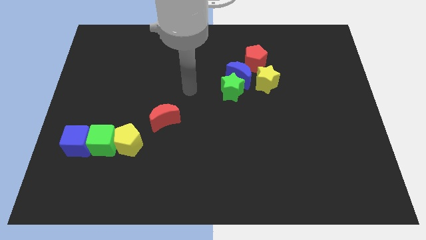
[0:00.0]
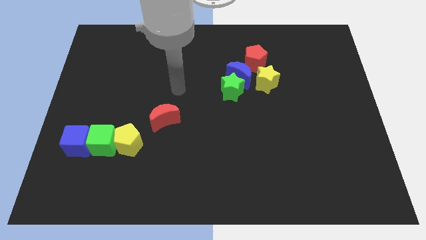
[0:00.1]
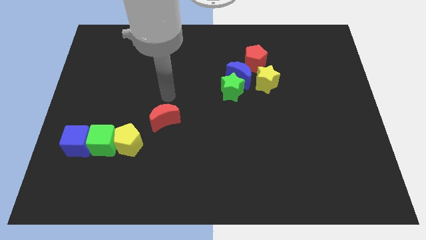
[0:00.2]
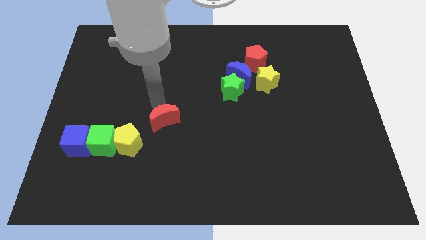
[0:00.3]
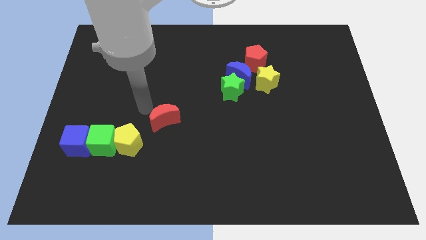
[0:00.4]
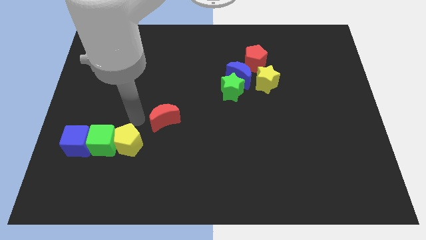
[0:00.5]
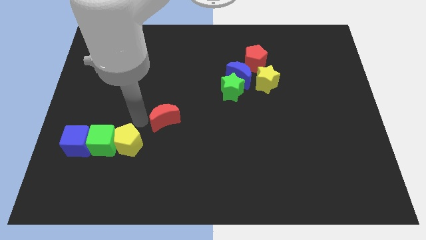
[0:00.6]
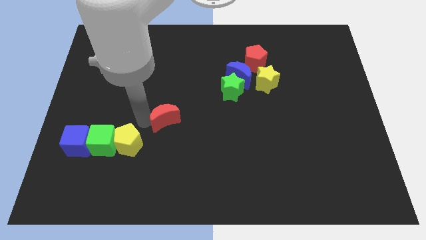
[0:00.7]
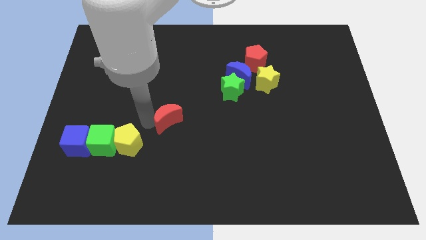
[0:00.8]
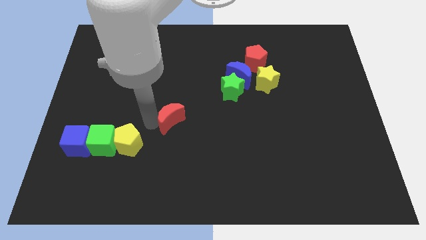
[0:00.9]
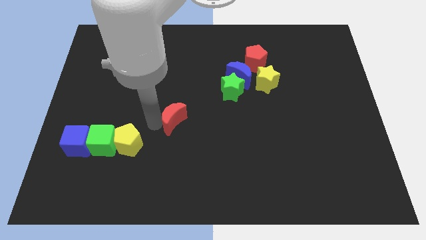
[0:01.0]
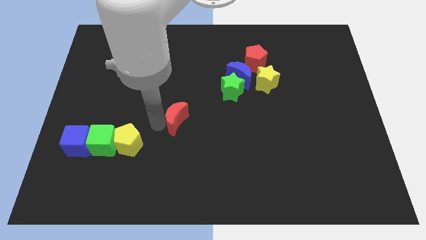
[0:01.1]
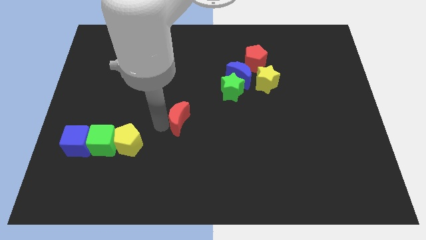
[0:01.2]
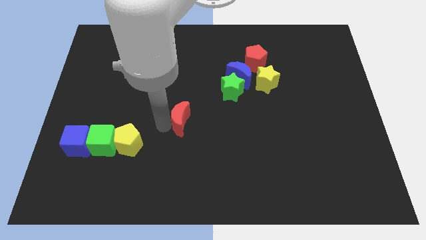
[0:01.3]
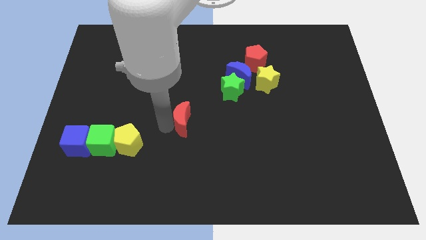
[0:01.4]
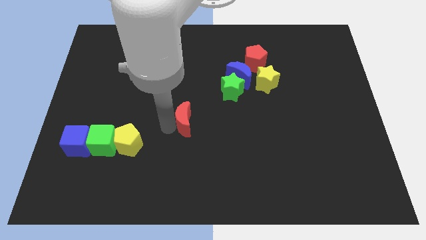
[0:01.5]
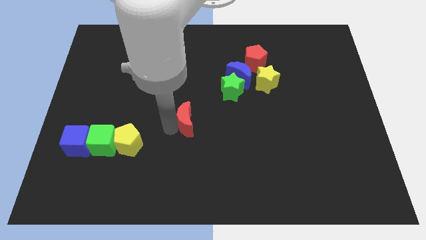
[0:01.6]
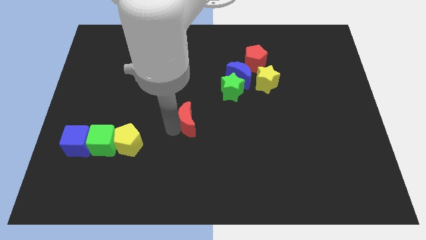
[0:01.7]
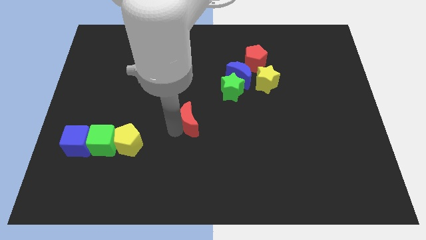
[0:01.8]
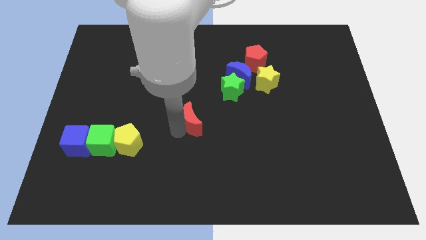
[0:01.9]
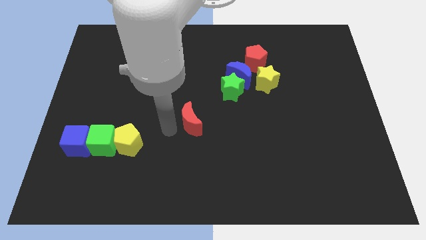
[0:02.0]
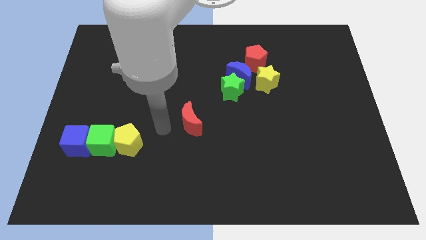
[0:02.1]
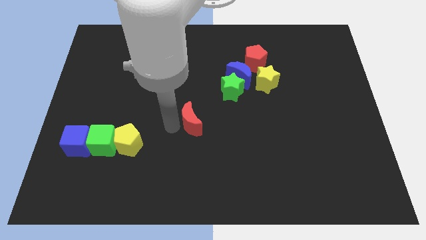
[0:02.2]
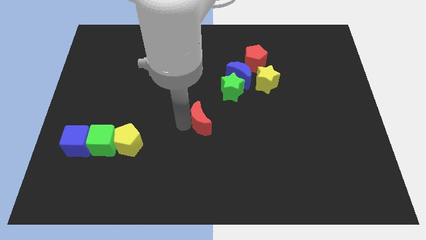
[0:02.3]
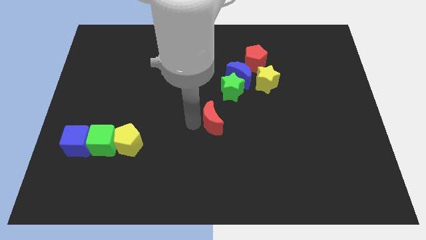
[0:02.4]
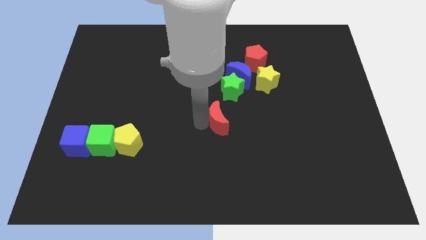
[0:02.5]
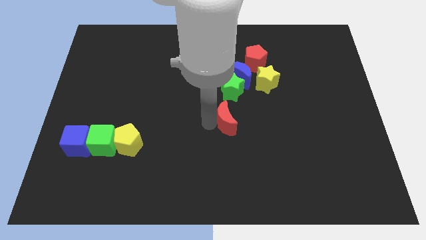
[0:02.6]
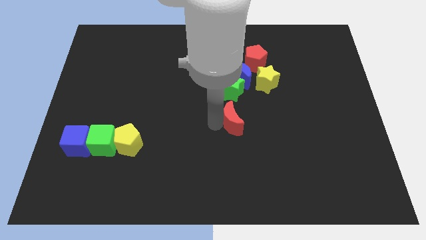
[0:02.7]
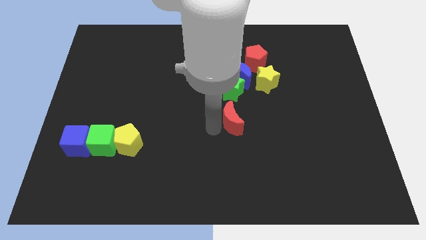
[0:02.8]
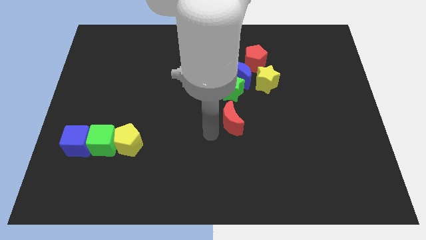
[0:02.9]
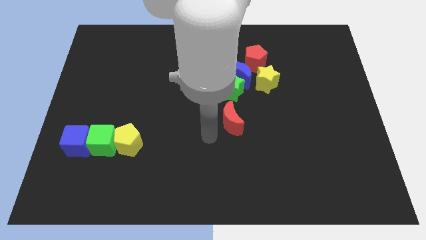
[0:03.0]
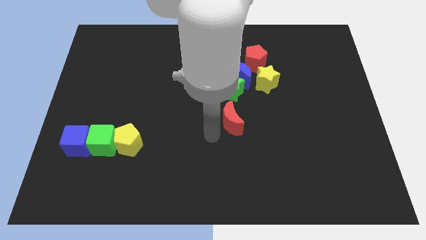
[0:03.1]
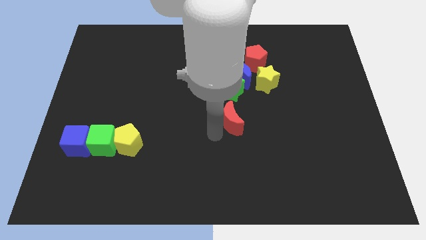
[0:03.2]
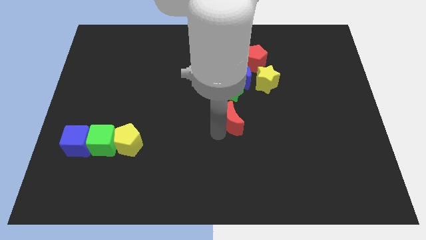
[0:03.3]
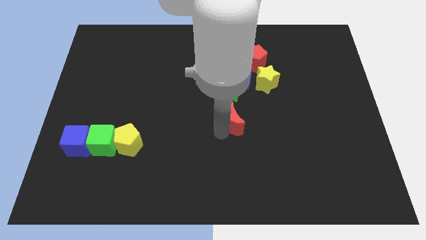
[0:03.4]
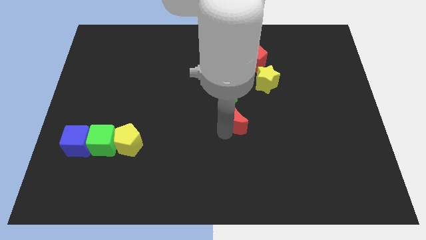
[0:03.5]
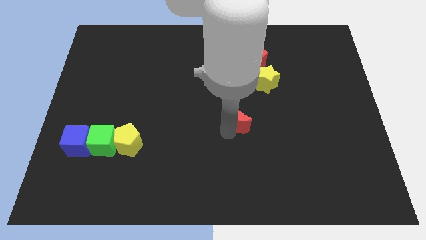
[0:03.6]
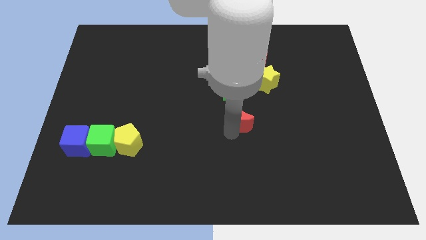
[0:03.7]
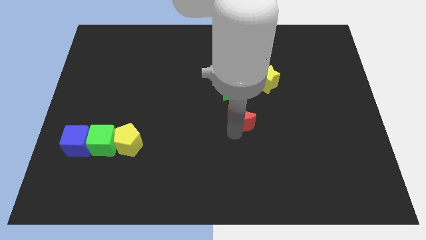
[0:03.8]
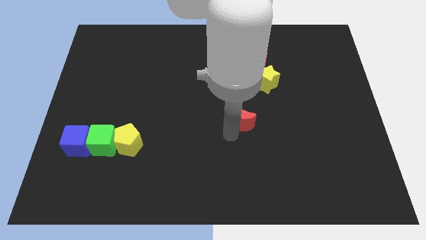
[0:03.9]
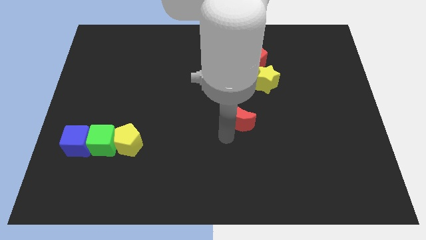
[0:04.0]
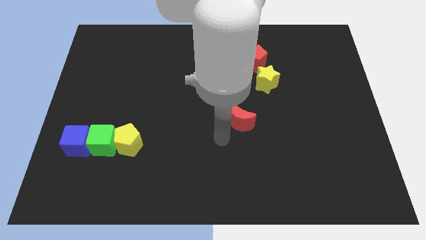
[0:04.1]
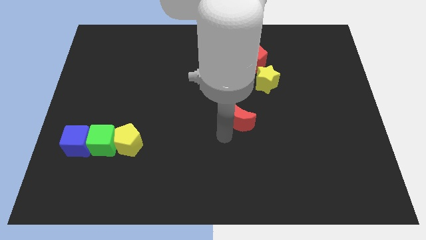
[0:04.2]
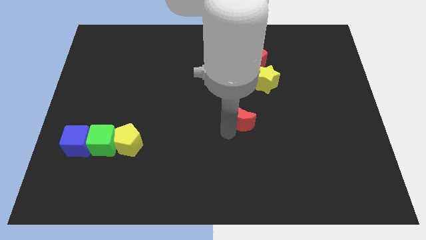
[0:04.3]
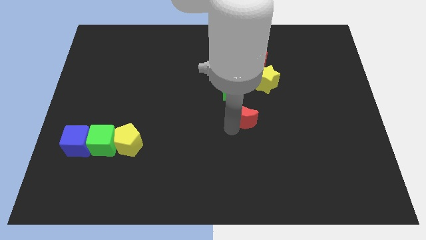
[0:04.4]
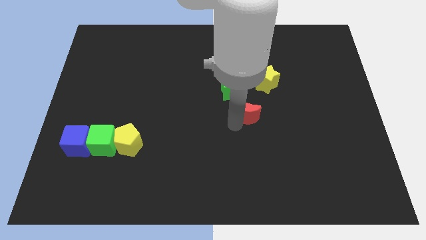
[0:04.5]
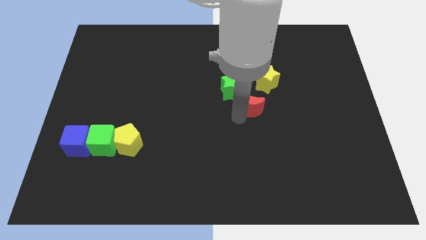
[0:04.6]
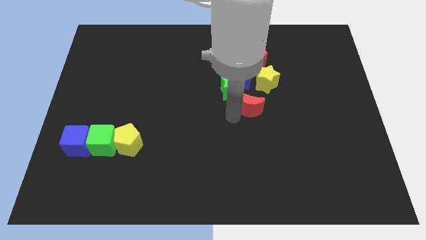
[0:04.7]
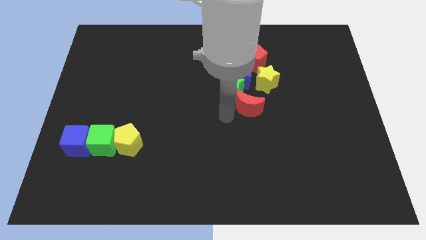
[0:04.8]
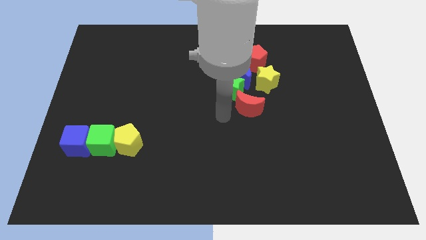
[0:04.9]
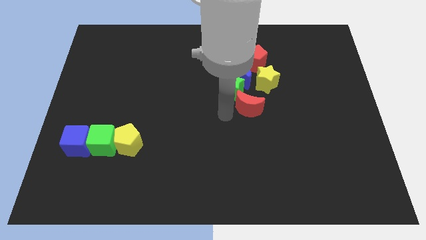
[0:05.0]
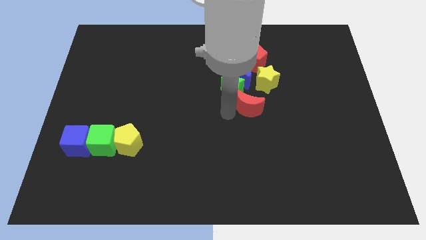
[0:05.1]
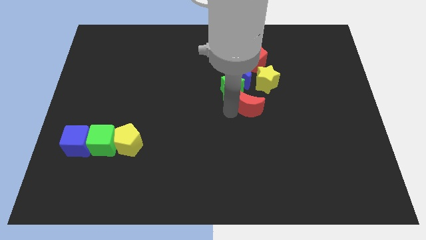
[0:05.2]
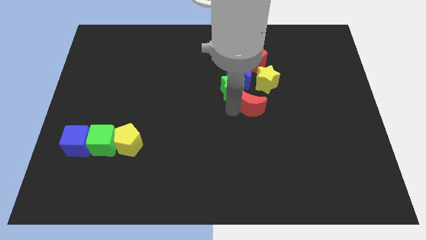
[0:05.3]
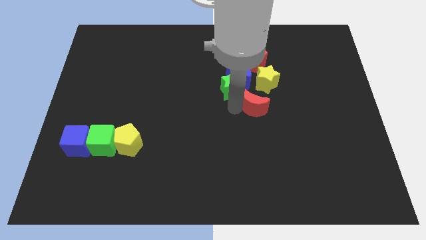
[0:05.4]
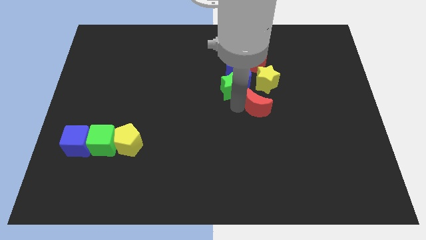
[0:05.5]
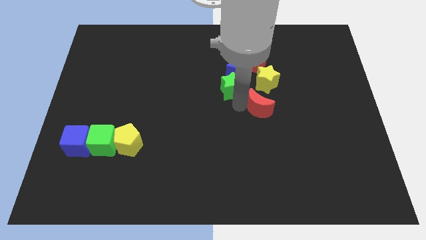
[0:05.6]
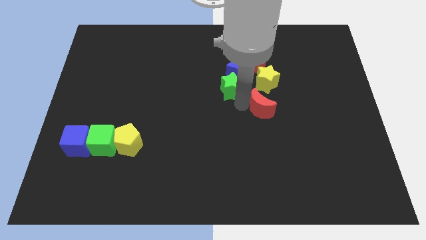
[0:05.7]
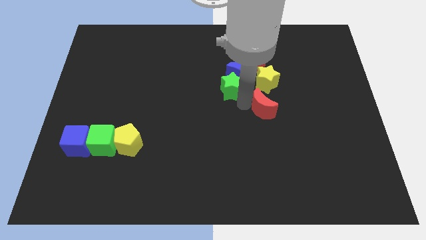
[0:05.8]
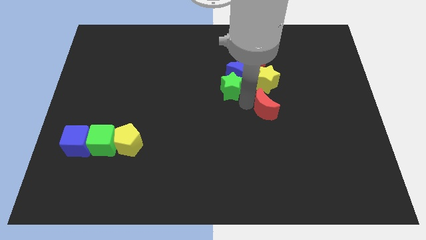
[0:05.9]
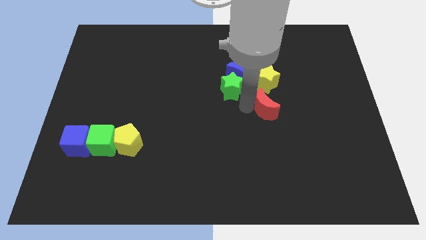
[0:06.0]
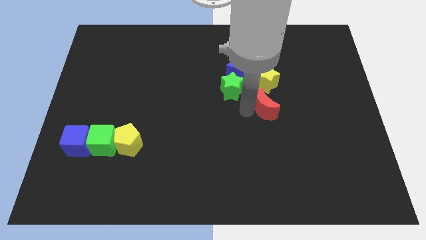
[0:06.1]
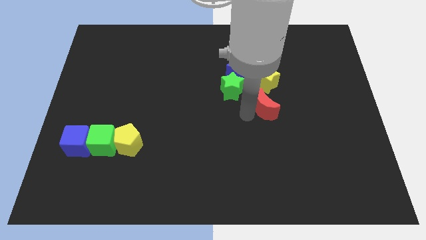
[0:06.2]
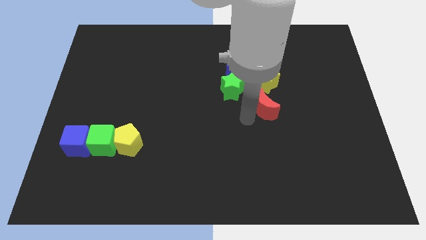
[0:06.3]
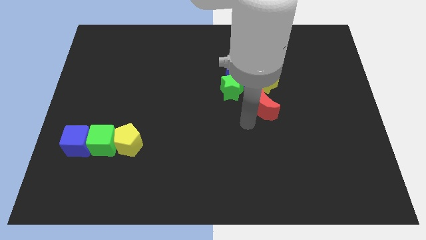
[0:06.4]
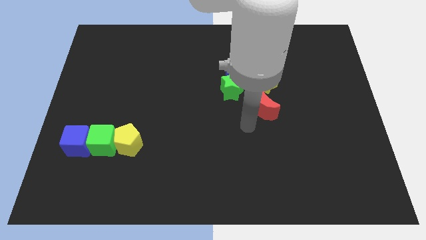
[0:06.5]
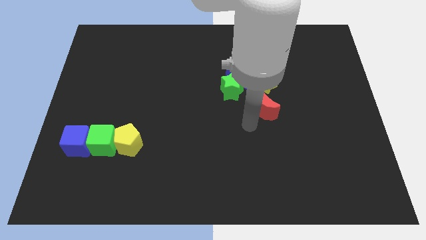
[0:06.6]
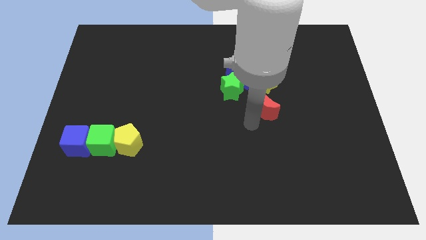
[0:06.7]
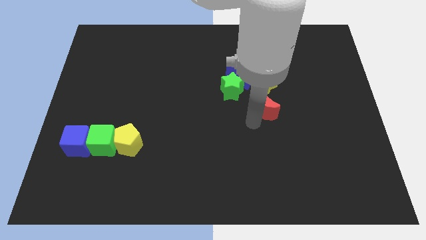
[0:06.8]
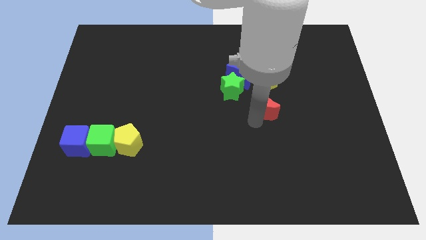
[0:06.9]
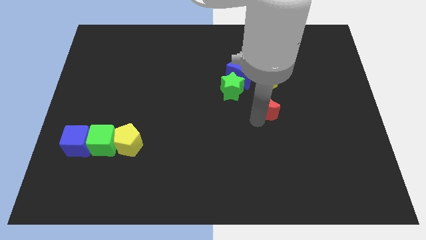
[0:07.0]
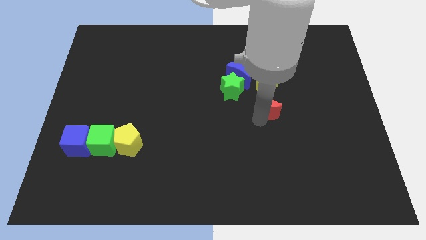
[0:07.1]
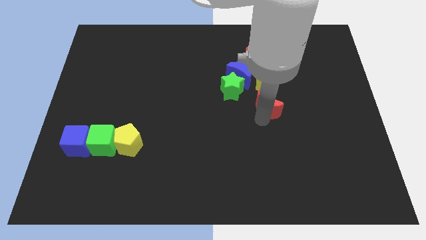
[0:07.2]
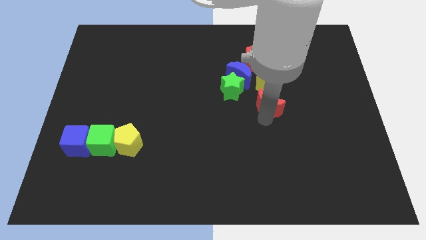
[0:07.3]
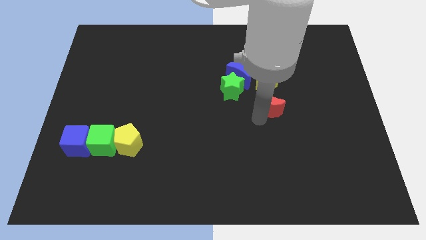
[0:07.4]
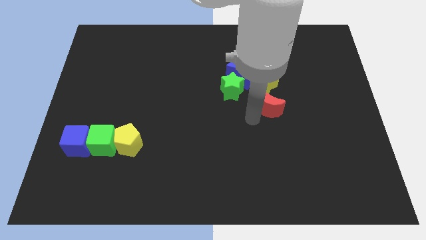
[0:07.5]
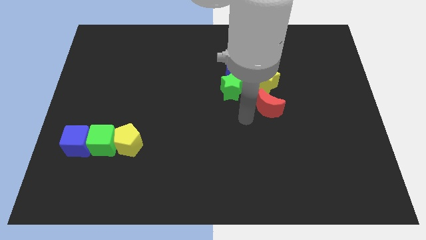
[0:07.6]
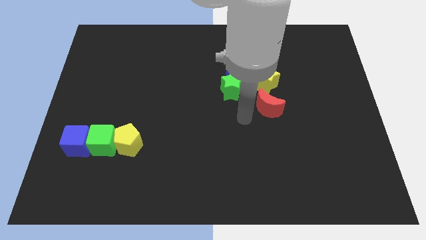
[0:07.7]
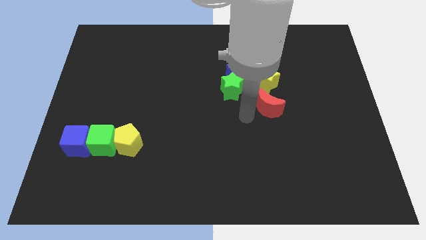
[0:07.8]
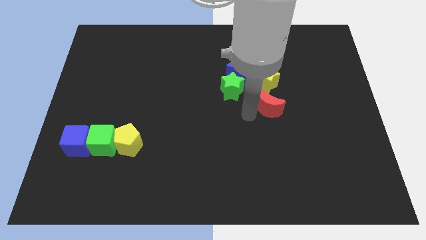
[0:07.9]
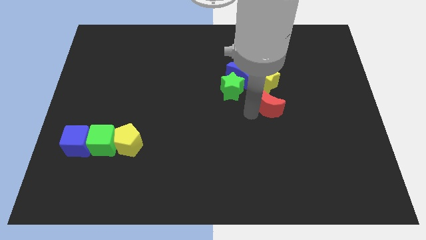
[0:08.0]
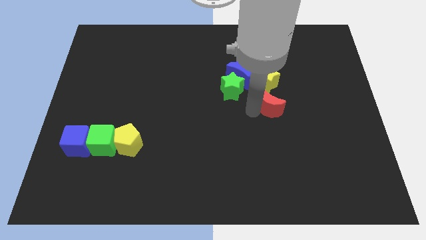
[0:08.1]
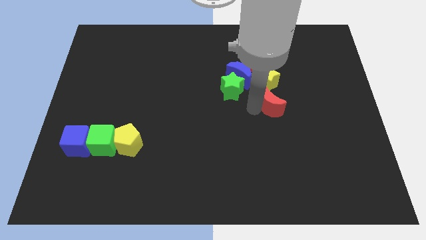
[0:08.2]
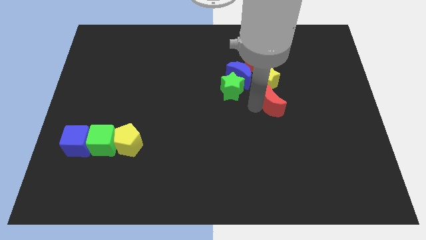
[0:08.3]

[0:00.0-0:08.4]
slide the red moon to the bottom right of the yellow star
